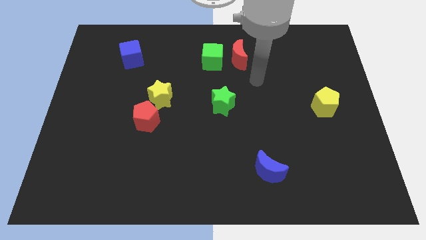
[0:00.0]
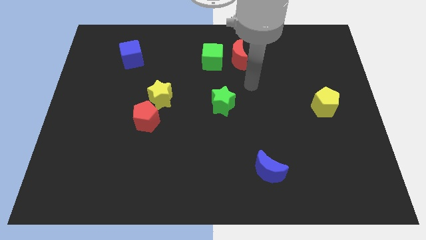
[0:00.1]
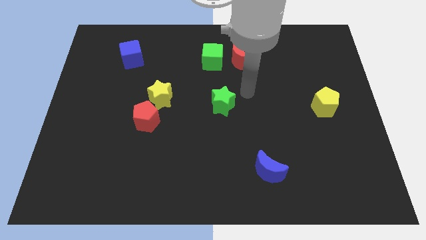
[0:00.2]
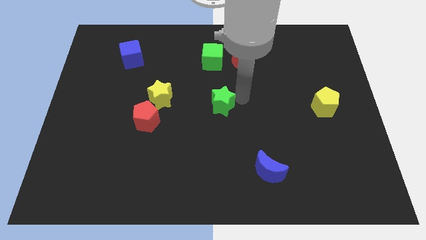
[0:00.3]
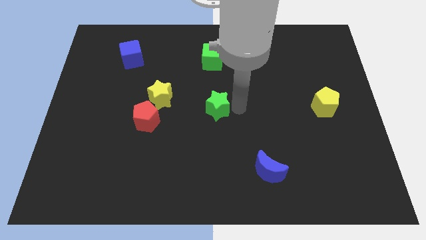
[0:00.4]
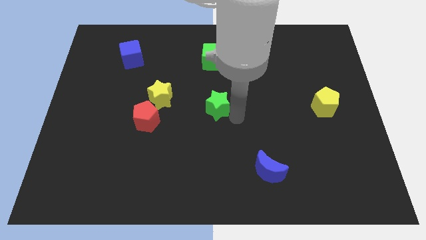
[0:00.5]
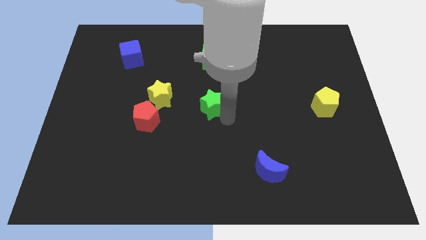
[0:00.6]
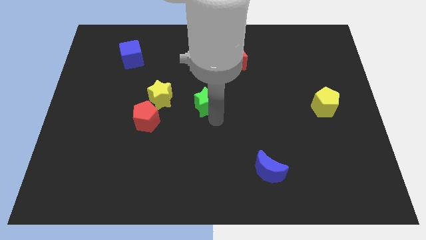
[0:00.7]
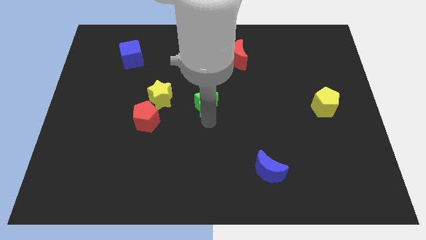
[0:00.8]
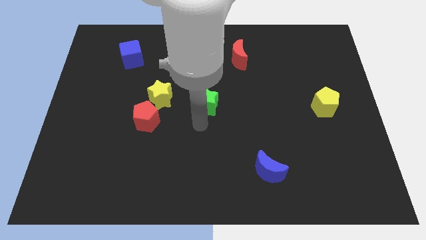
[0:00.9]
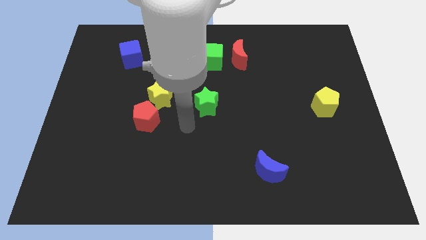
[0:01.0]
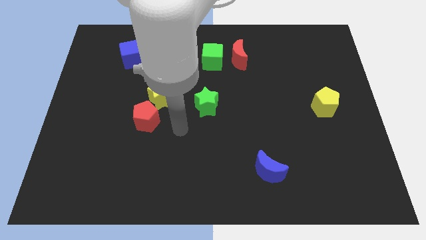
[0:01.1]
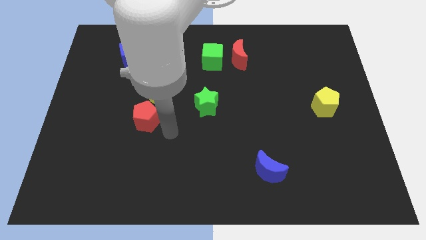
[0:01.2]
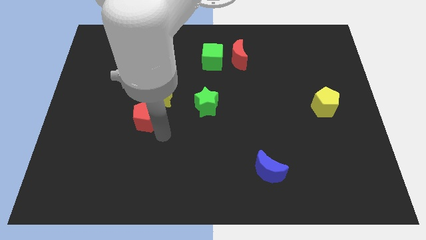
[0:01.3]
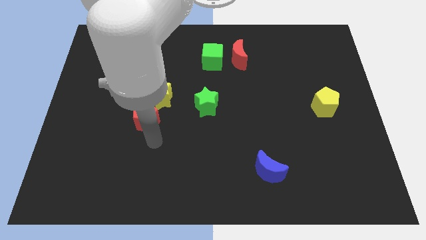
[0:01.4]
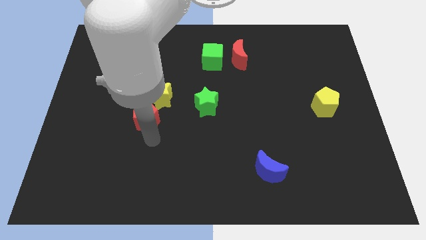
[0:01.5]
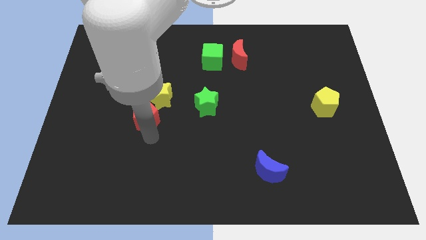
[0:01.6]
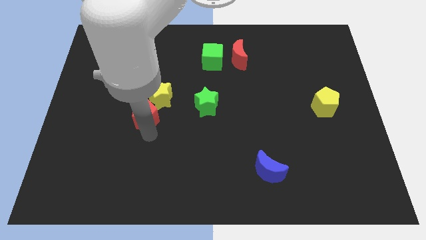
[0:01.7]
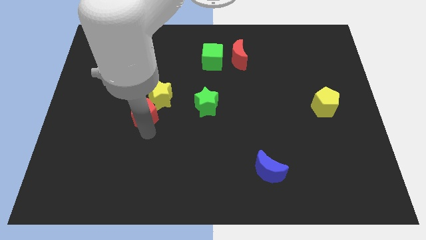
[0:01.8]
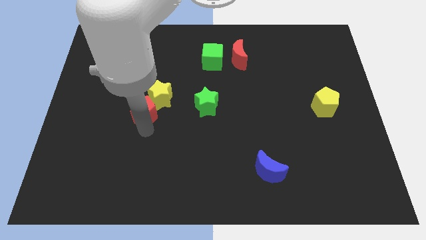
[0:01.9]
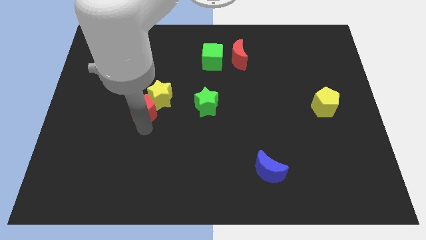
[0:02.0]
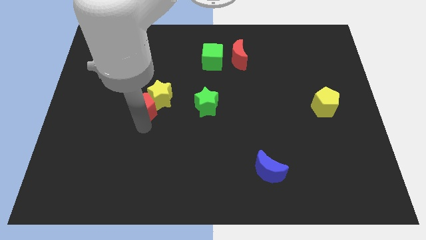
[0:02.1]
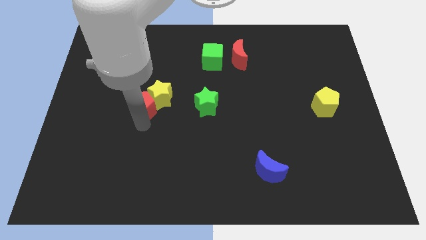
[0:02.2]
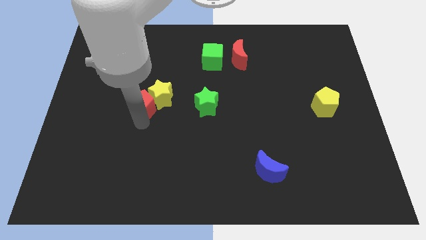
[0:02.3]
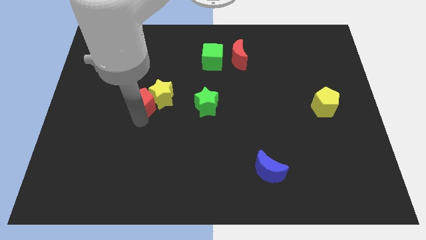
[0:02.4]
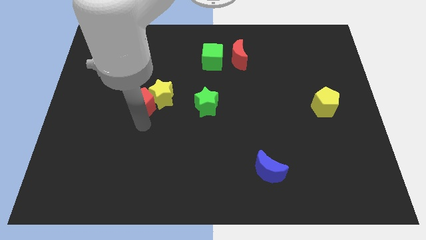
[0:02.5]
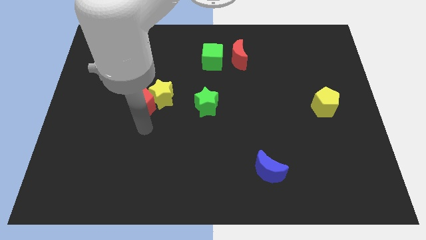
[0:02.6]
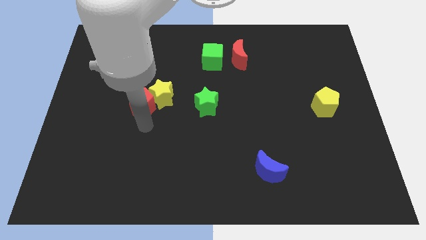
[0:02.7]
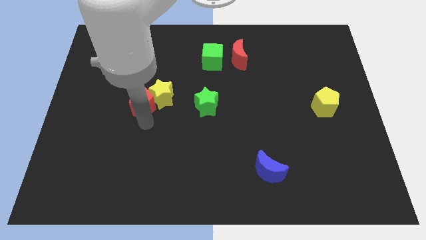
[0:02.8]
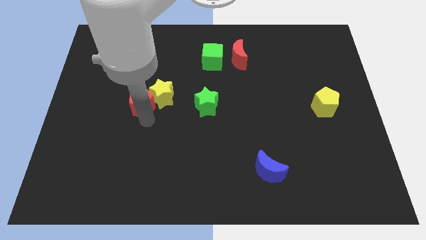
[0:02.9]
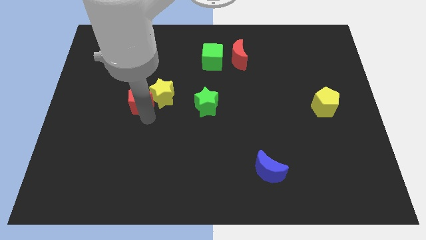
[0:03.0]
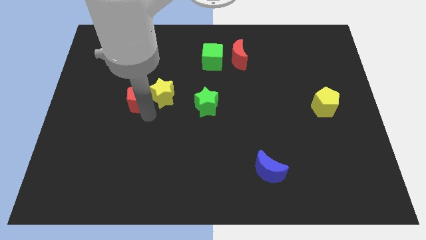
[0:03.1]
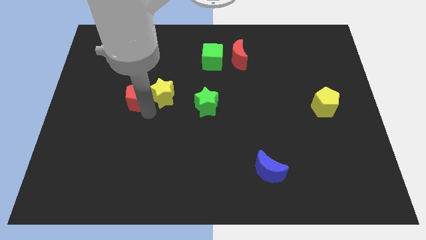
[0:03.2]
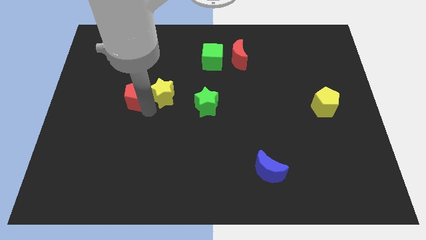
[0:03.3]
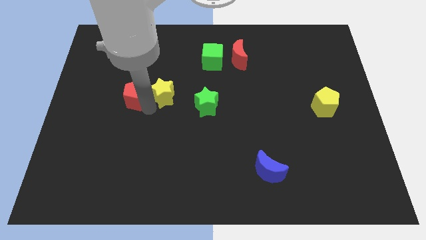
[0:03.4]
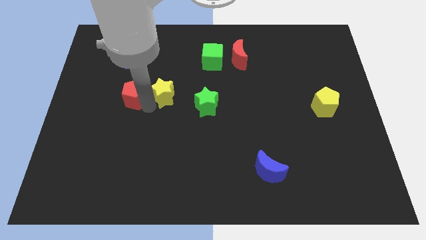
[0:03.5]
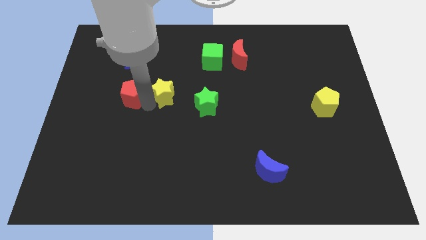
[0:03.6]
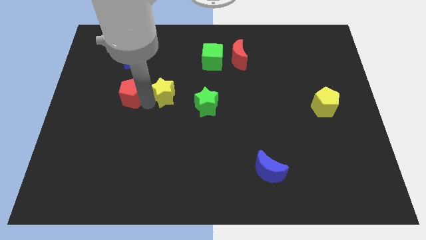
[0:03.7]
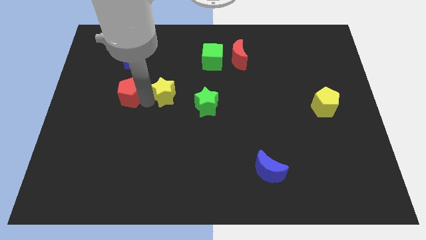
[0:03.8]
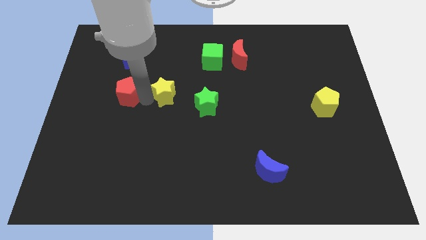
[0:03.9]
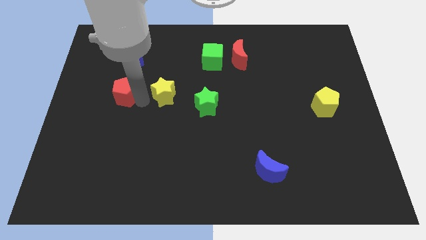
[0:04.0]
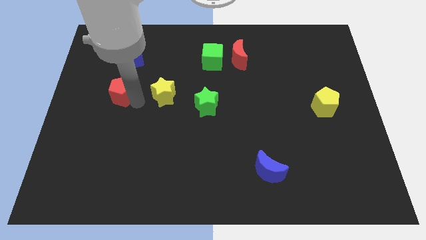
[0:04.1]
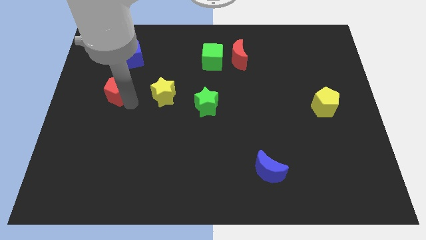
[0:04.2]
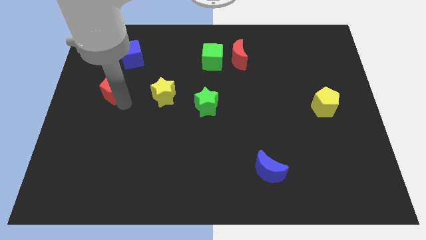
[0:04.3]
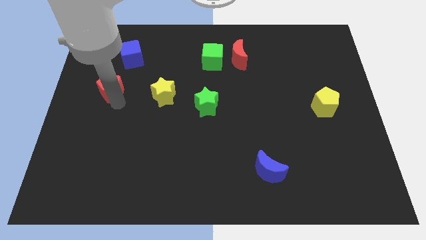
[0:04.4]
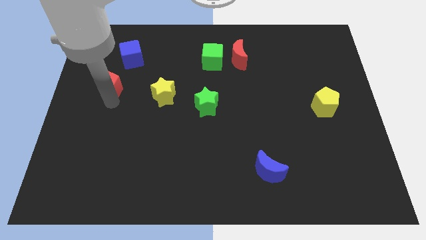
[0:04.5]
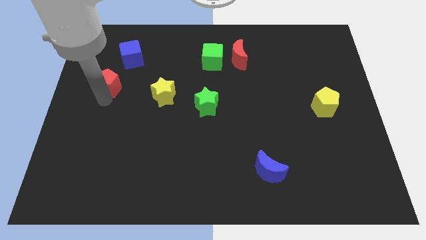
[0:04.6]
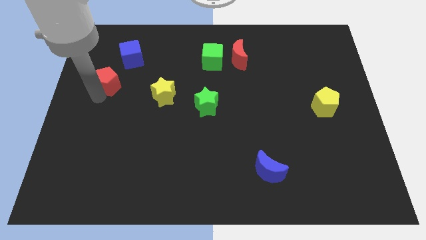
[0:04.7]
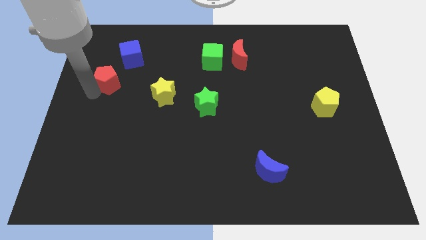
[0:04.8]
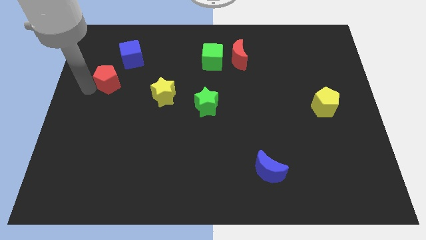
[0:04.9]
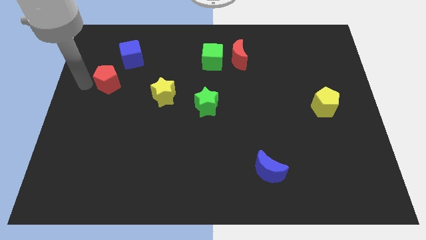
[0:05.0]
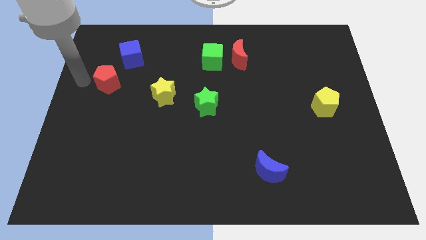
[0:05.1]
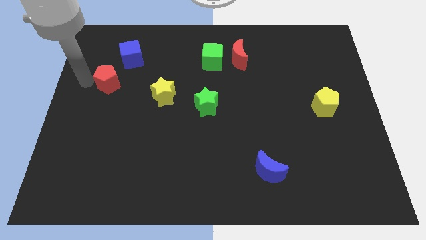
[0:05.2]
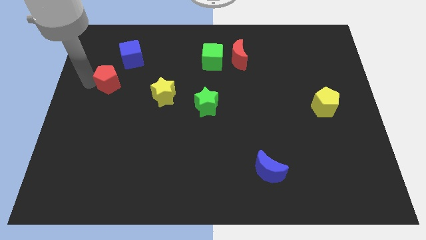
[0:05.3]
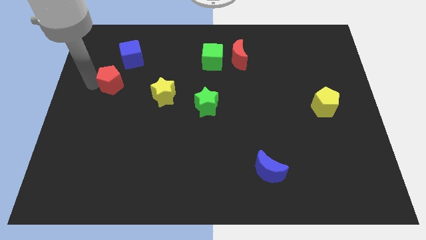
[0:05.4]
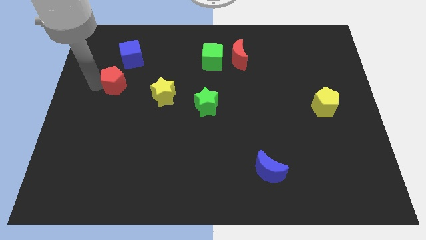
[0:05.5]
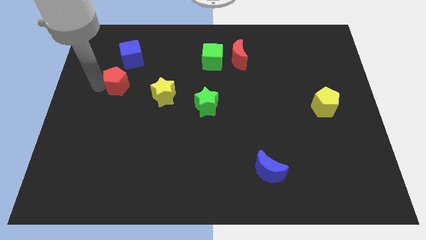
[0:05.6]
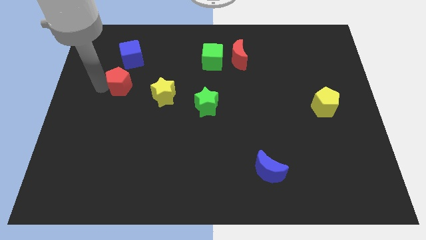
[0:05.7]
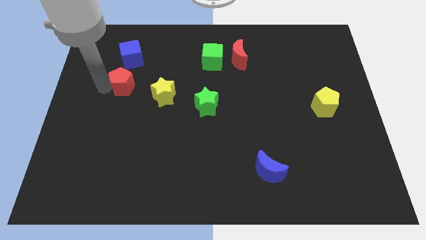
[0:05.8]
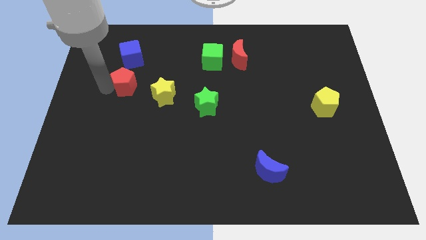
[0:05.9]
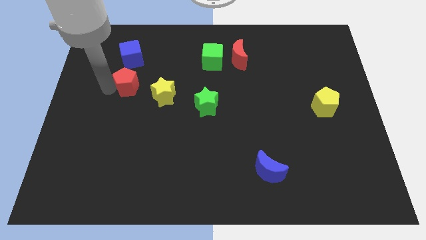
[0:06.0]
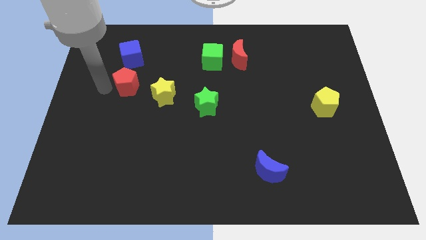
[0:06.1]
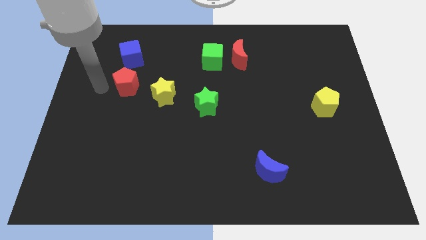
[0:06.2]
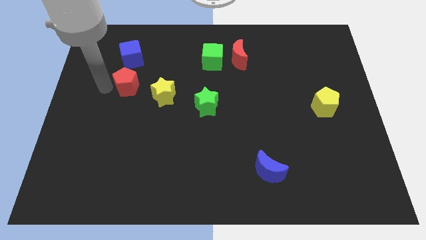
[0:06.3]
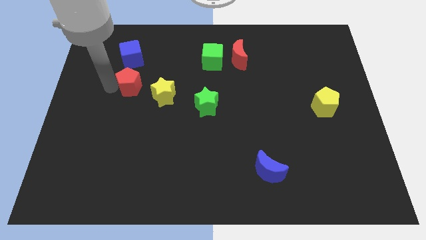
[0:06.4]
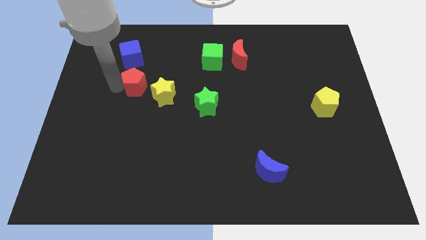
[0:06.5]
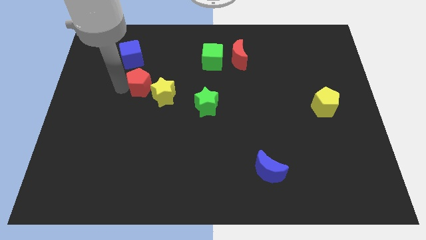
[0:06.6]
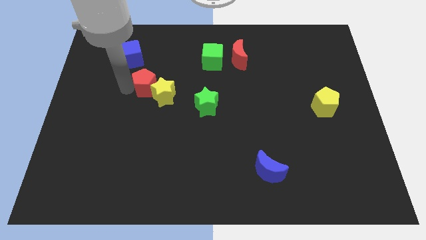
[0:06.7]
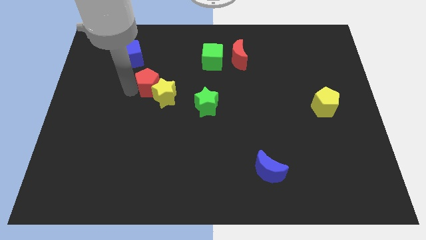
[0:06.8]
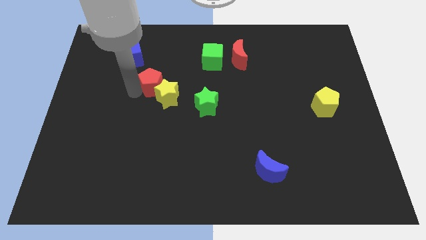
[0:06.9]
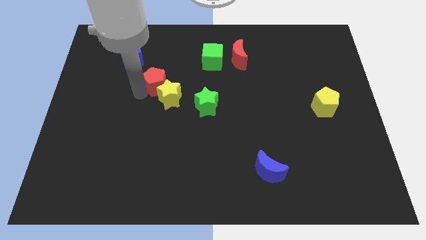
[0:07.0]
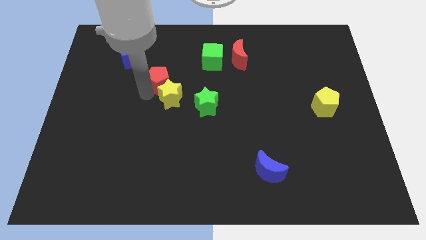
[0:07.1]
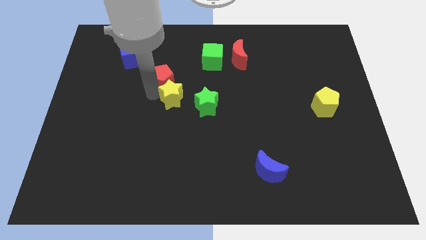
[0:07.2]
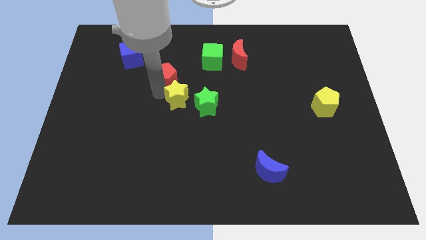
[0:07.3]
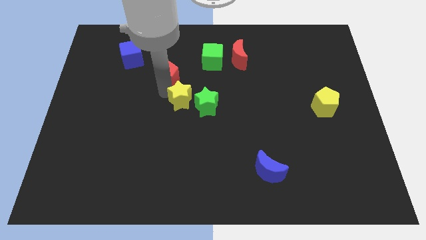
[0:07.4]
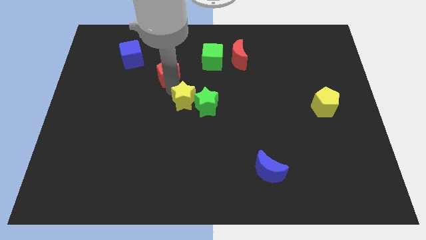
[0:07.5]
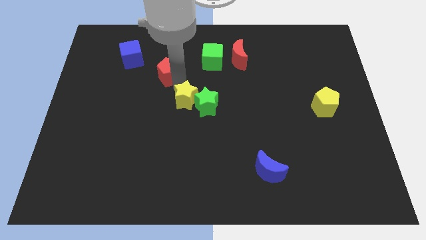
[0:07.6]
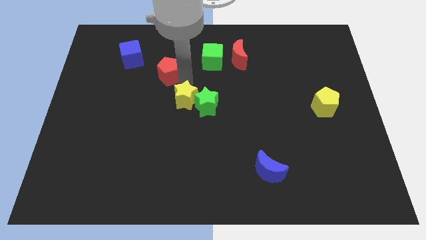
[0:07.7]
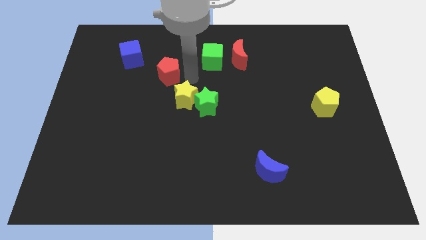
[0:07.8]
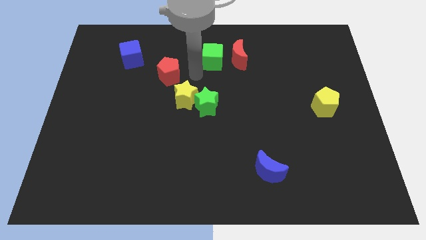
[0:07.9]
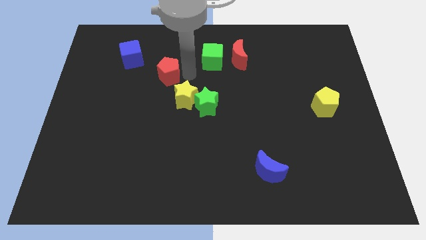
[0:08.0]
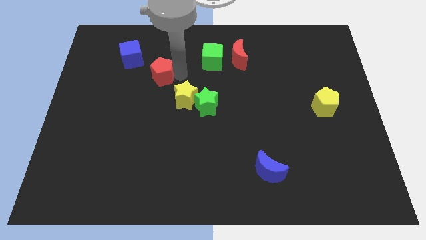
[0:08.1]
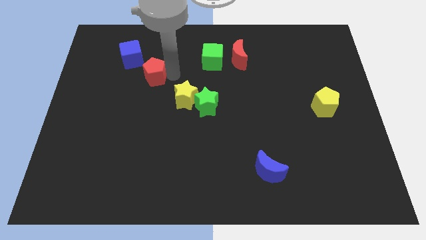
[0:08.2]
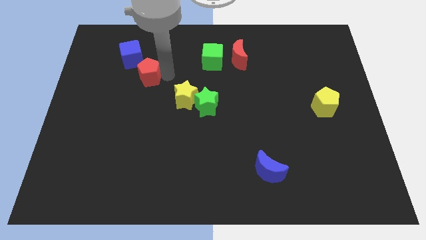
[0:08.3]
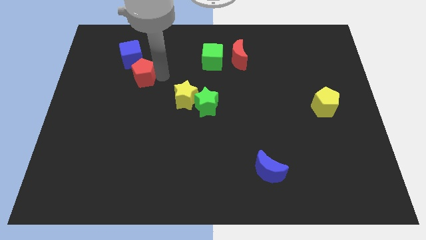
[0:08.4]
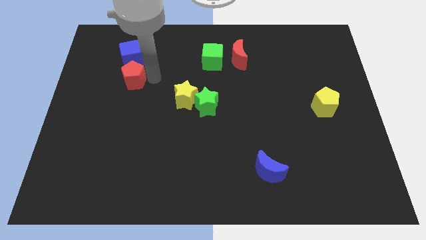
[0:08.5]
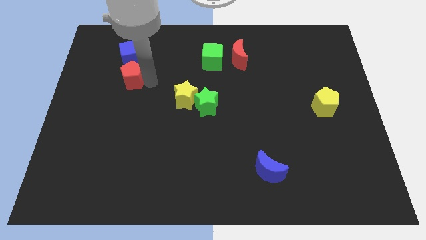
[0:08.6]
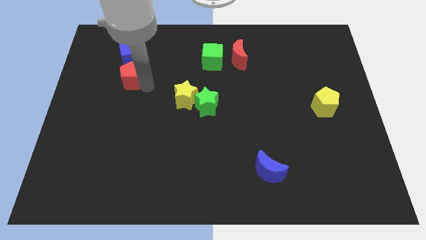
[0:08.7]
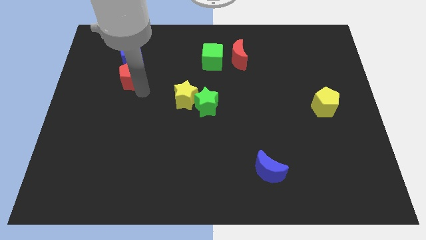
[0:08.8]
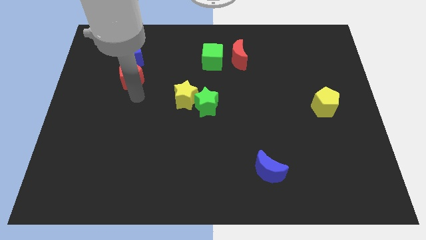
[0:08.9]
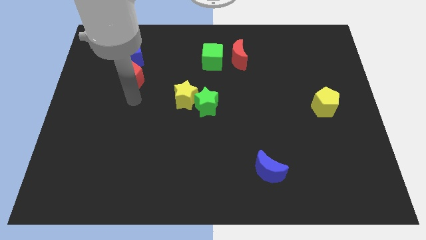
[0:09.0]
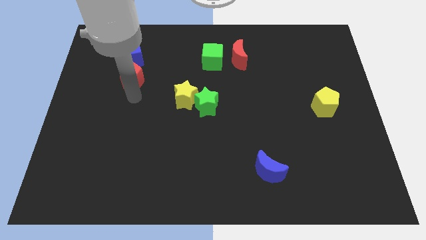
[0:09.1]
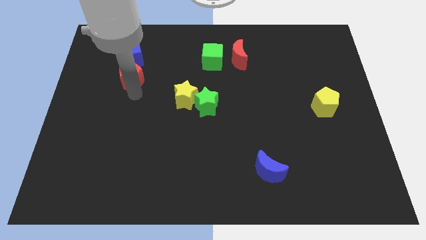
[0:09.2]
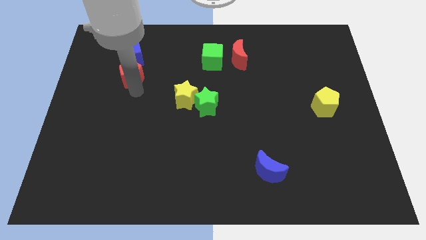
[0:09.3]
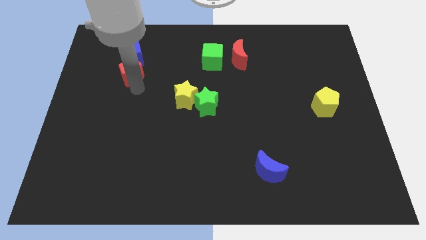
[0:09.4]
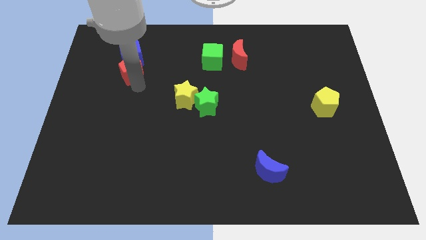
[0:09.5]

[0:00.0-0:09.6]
slide the red pentagon next to the blue cube
